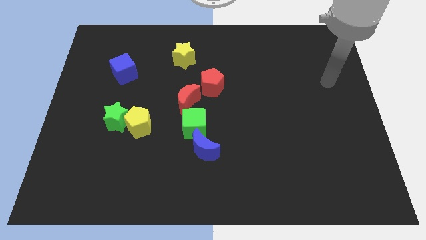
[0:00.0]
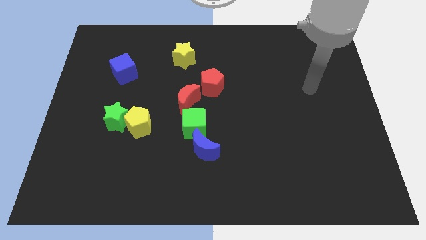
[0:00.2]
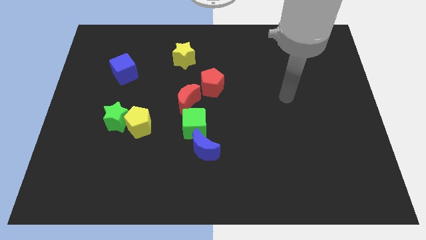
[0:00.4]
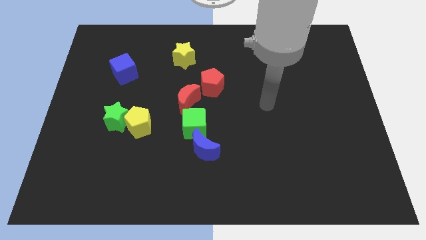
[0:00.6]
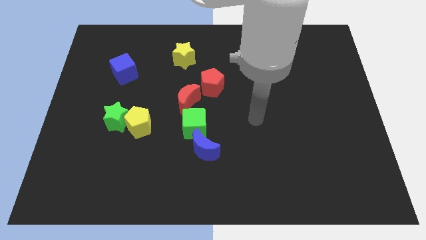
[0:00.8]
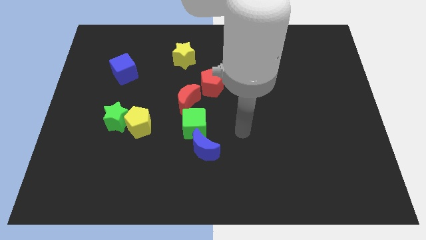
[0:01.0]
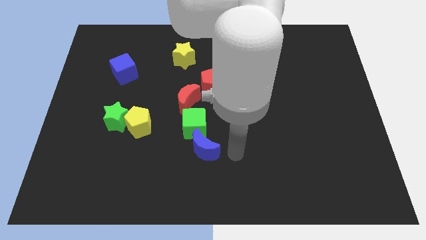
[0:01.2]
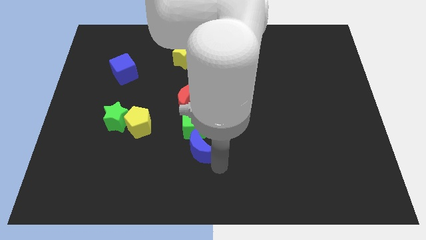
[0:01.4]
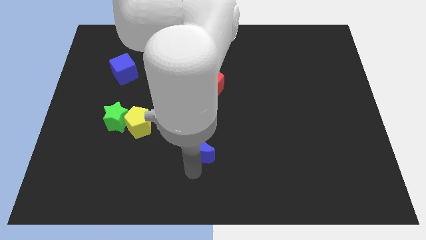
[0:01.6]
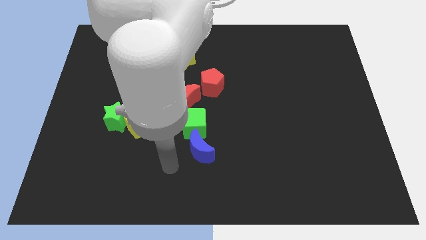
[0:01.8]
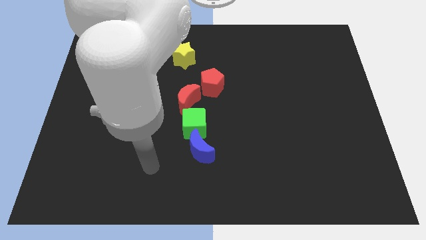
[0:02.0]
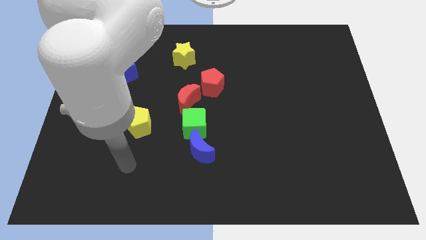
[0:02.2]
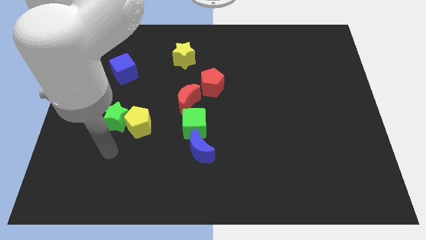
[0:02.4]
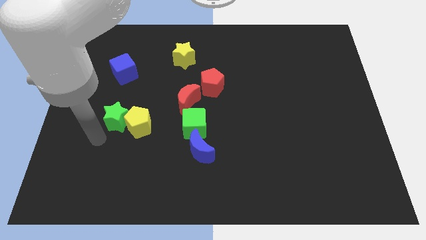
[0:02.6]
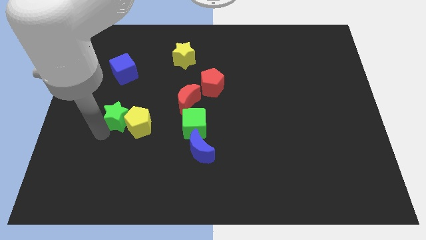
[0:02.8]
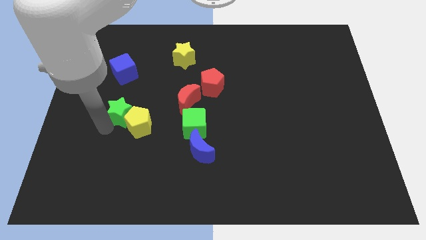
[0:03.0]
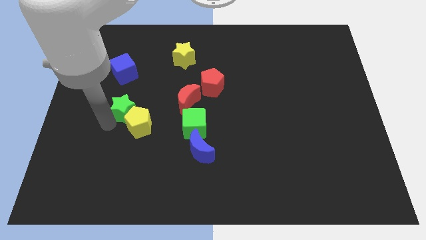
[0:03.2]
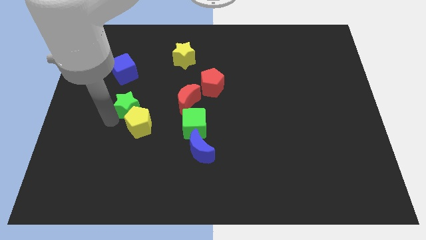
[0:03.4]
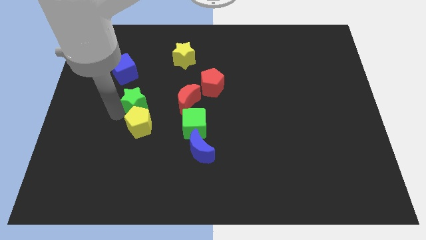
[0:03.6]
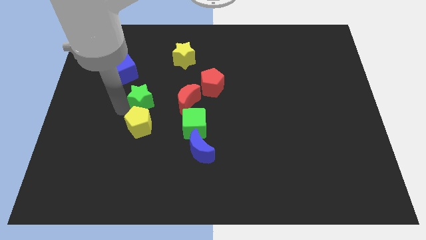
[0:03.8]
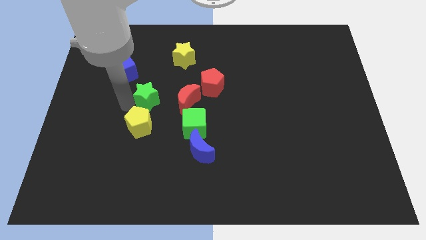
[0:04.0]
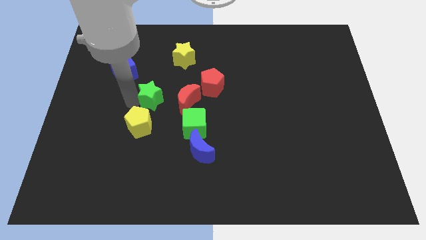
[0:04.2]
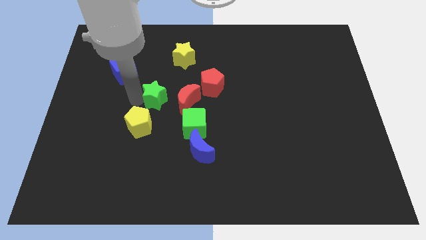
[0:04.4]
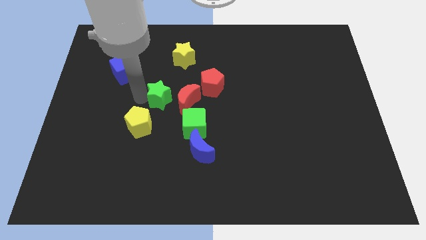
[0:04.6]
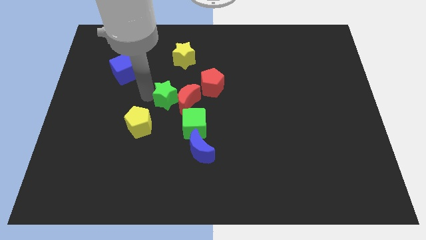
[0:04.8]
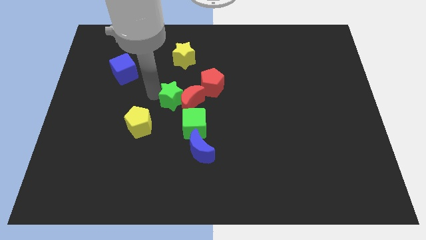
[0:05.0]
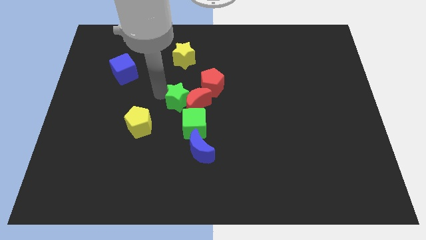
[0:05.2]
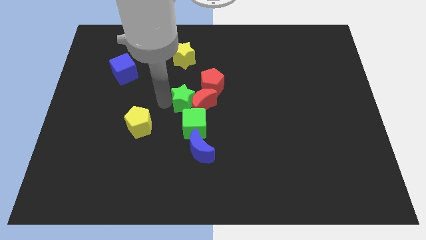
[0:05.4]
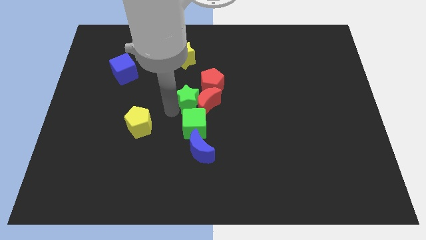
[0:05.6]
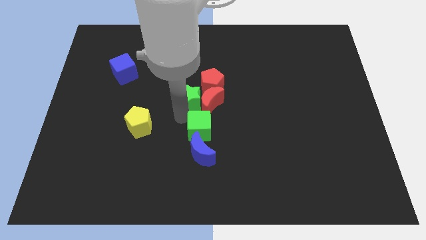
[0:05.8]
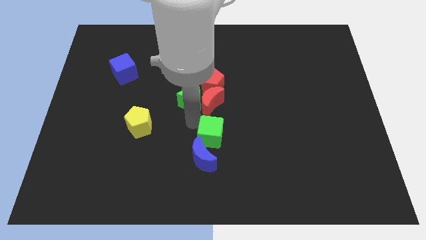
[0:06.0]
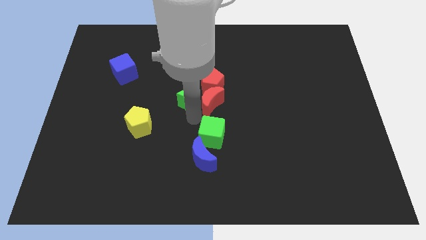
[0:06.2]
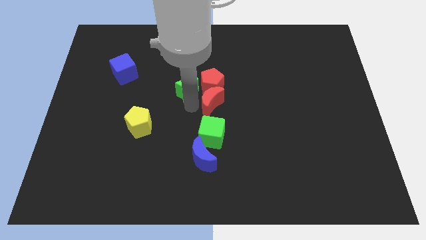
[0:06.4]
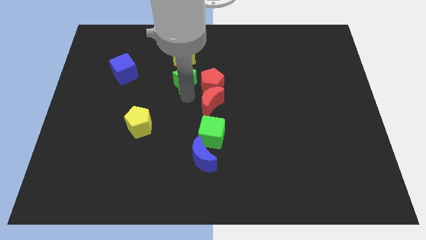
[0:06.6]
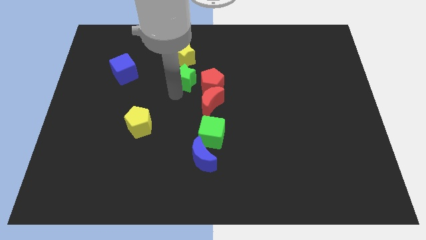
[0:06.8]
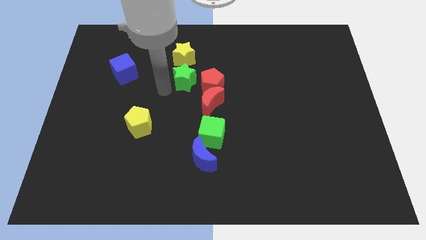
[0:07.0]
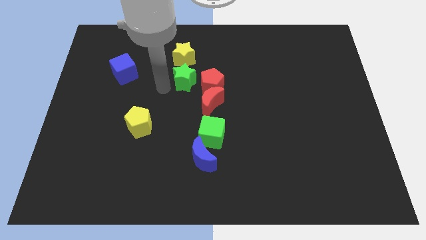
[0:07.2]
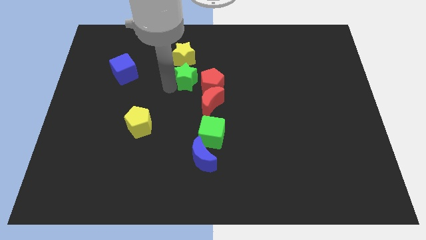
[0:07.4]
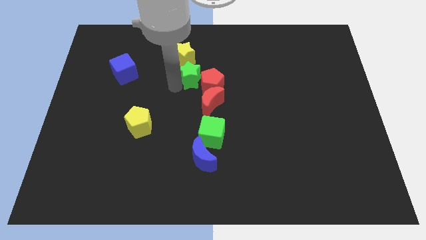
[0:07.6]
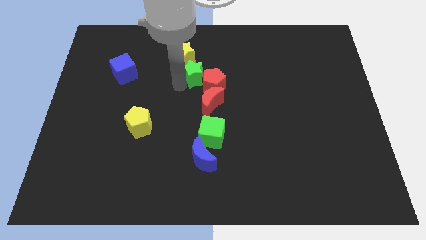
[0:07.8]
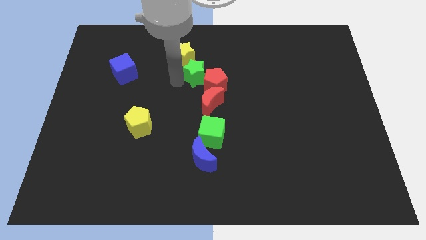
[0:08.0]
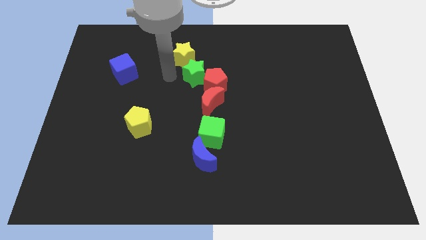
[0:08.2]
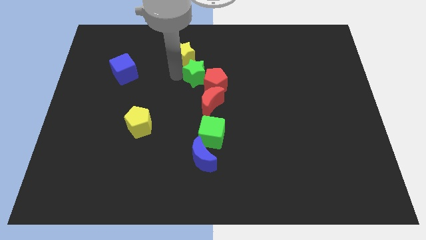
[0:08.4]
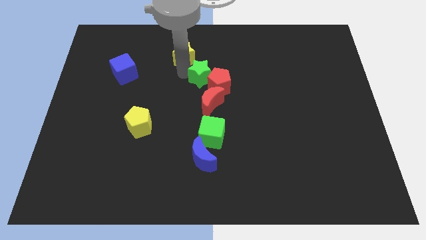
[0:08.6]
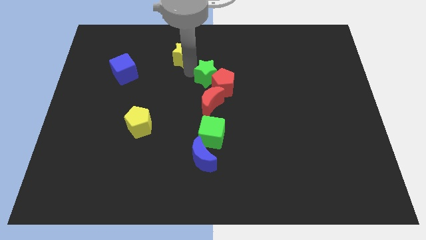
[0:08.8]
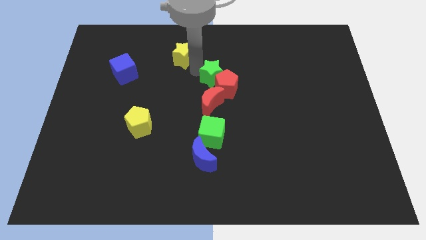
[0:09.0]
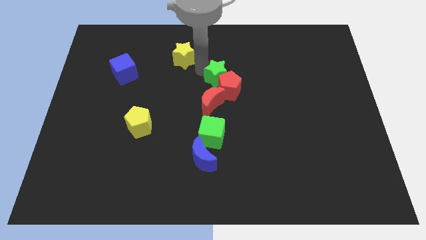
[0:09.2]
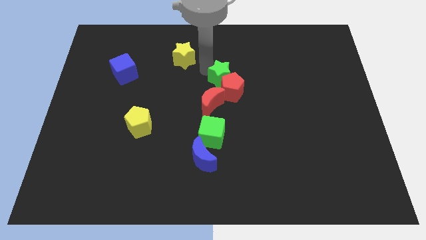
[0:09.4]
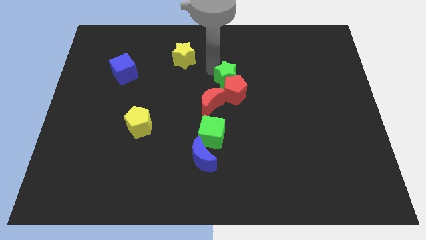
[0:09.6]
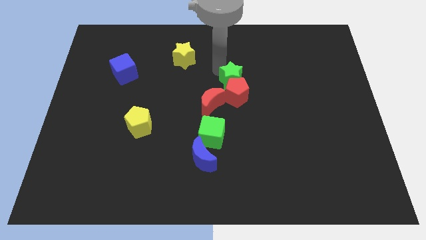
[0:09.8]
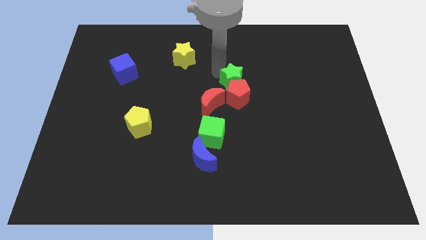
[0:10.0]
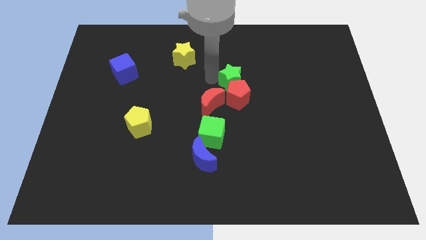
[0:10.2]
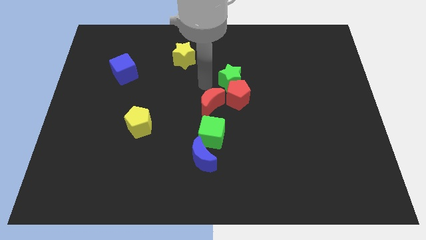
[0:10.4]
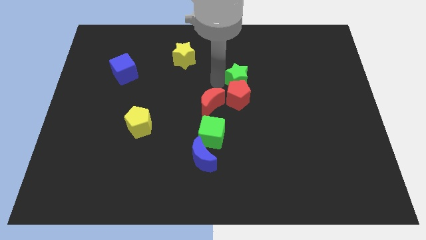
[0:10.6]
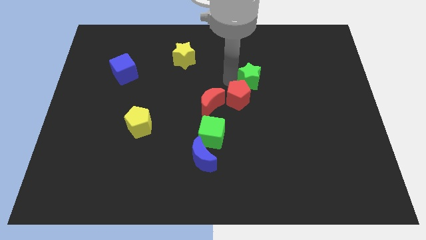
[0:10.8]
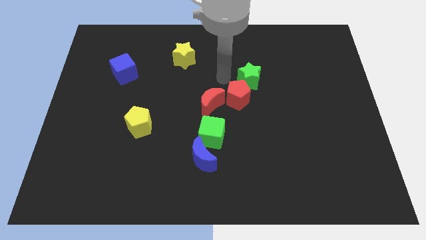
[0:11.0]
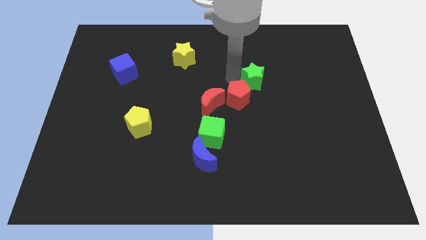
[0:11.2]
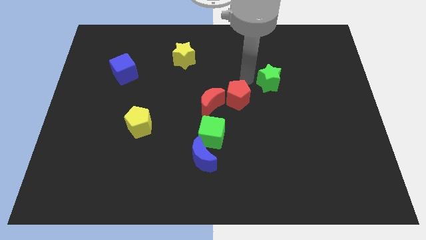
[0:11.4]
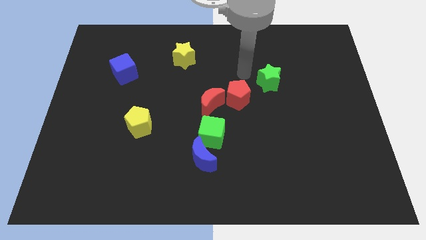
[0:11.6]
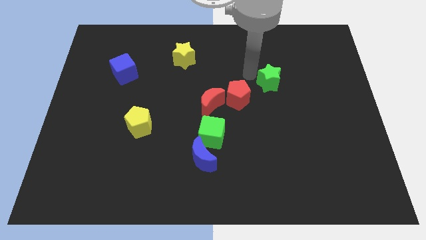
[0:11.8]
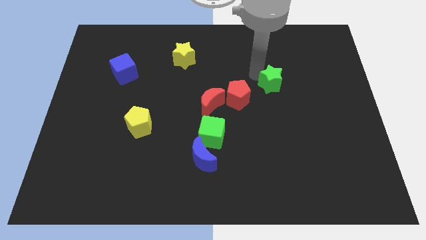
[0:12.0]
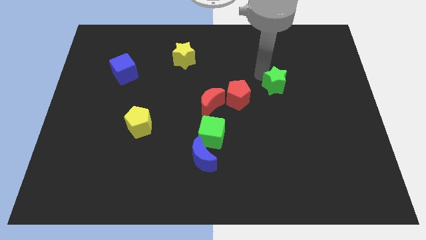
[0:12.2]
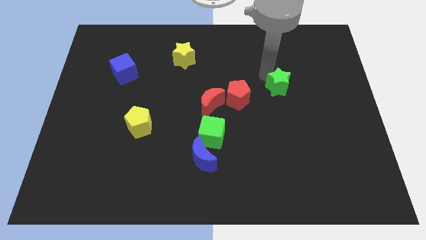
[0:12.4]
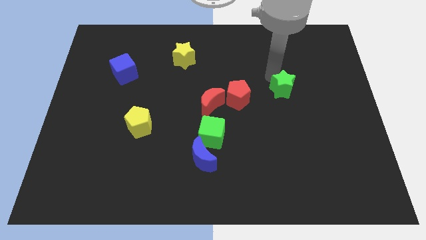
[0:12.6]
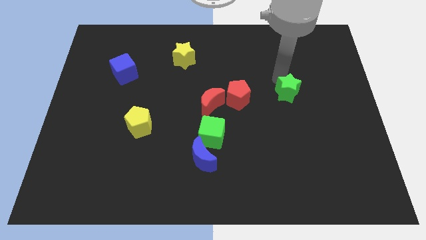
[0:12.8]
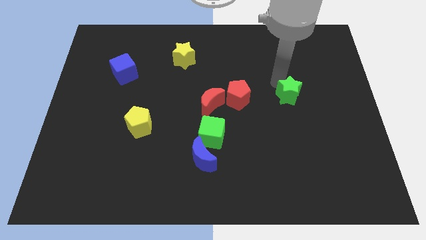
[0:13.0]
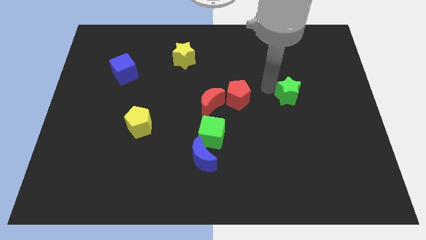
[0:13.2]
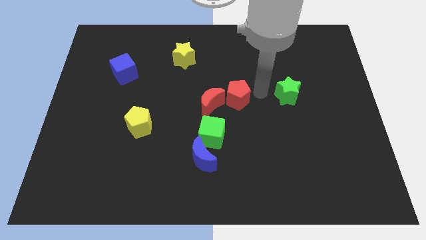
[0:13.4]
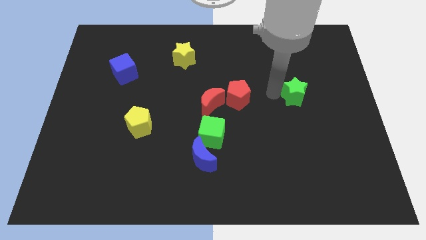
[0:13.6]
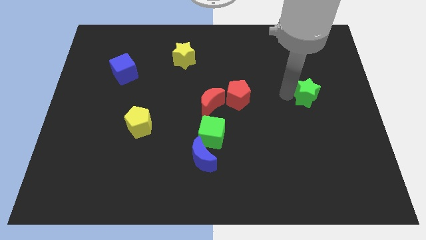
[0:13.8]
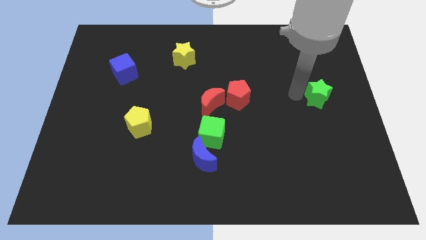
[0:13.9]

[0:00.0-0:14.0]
slide the green star to the right side of the board
